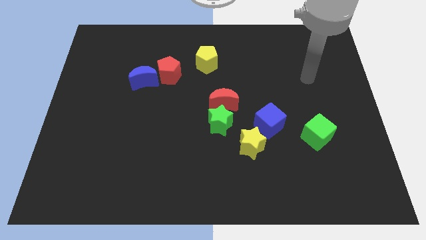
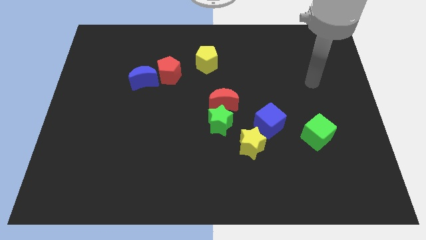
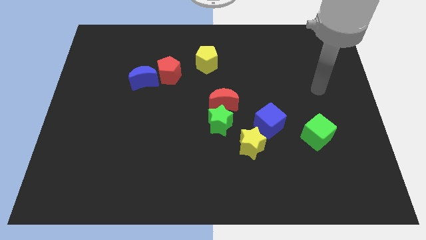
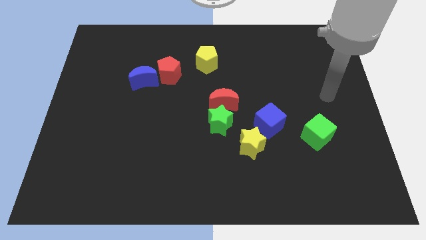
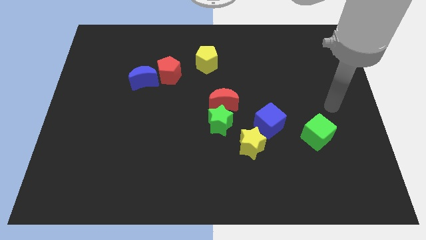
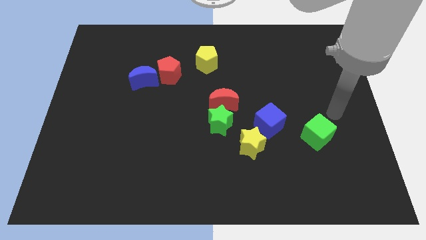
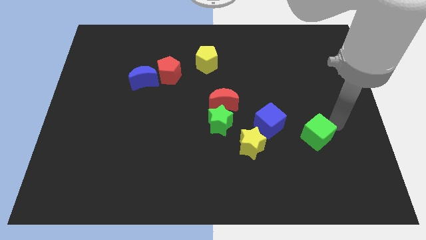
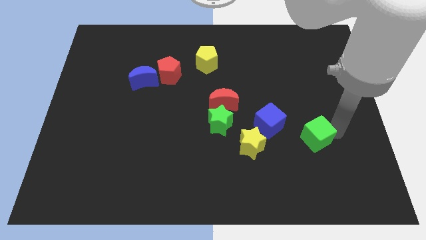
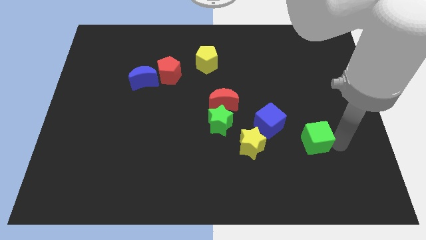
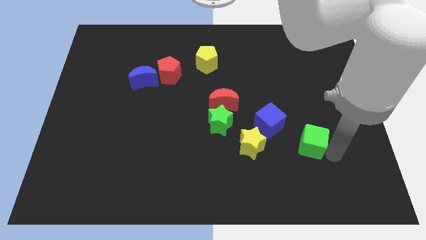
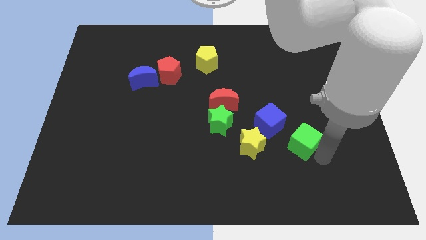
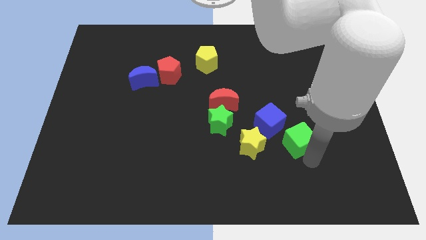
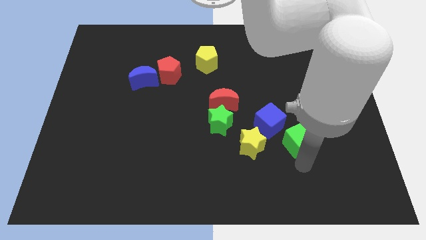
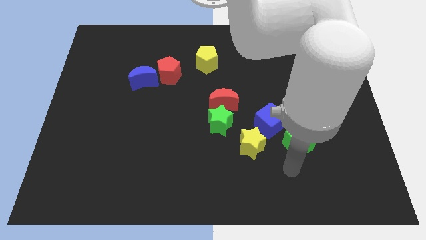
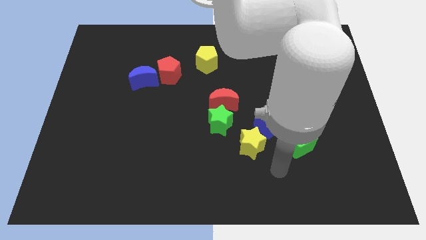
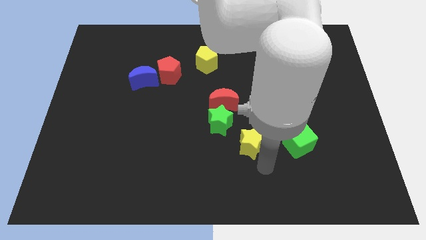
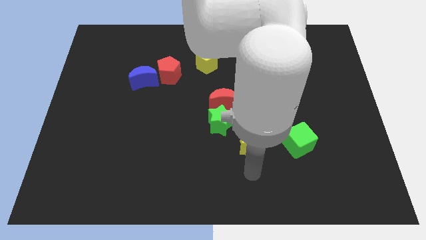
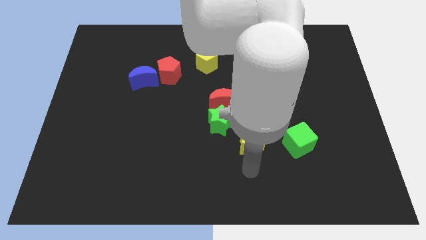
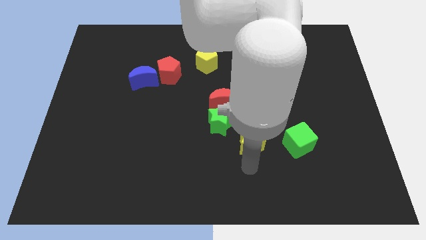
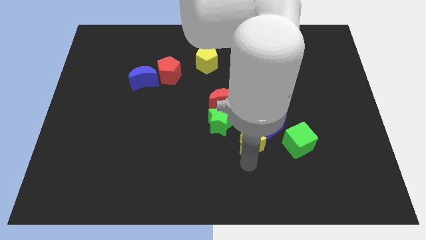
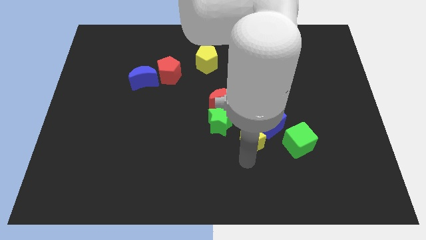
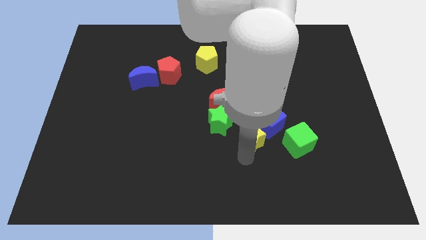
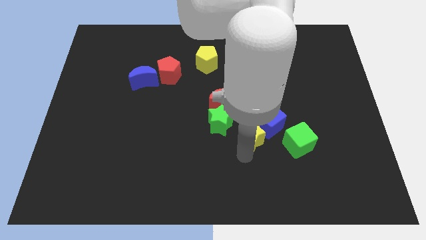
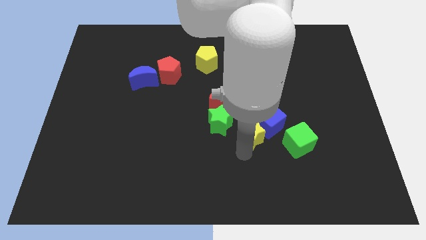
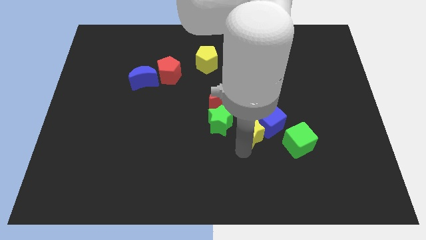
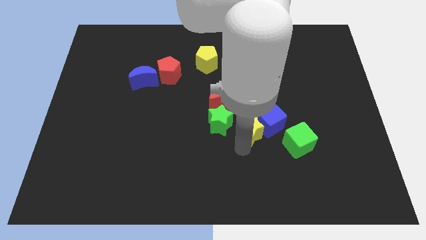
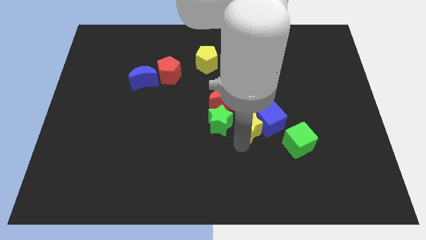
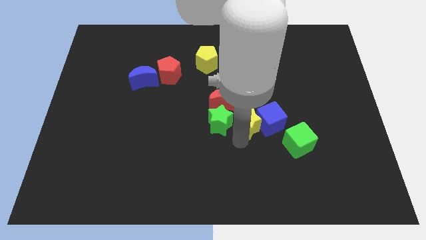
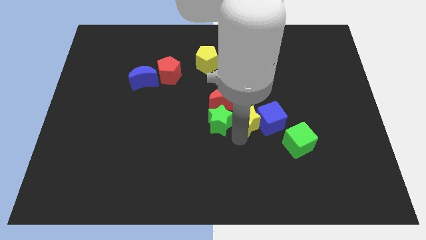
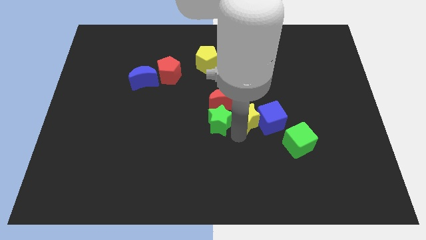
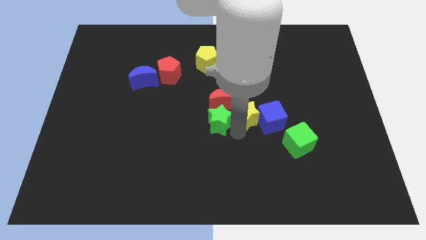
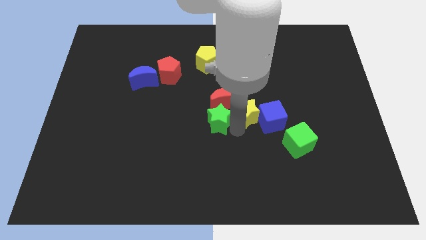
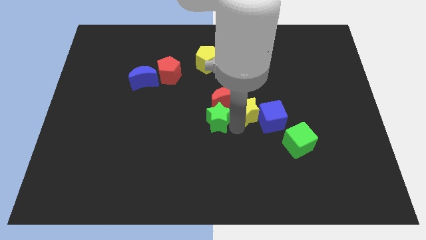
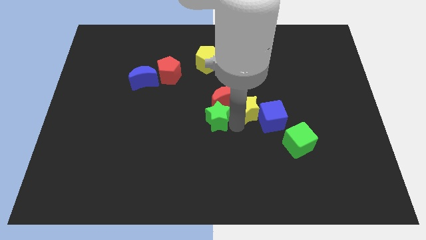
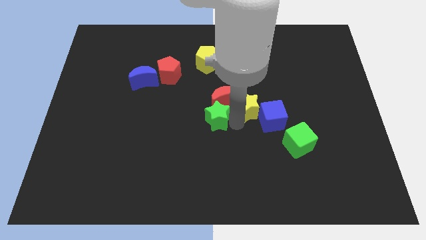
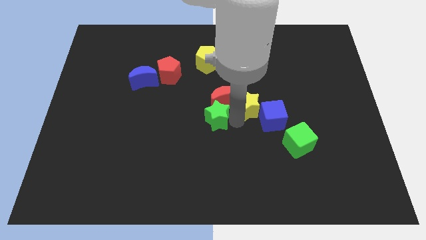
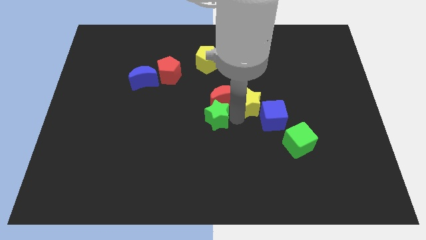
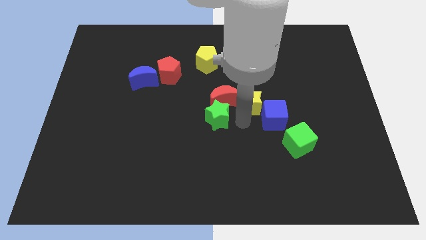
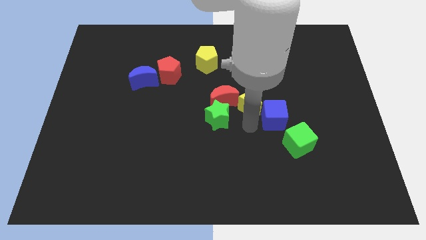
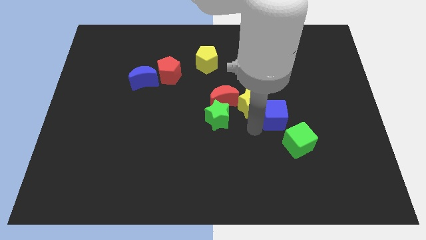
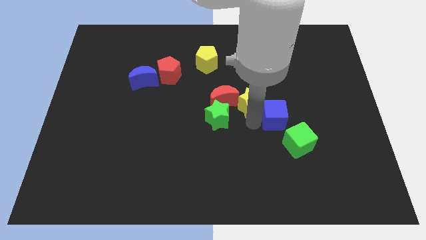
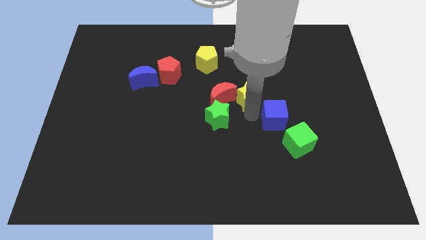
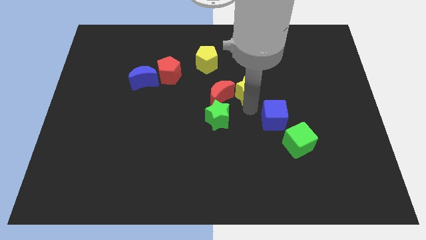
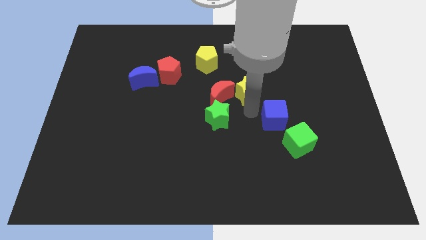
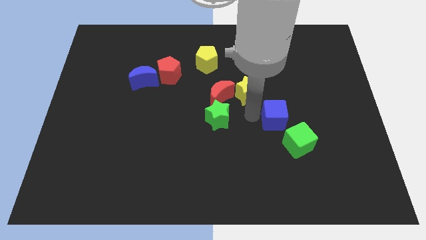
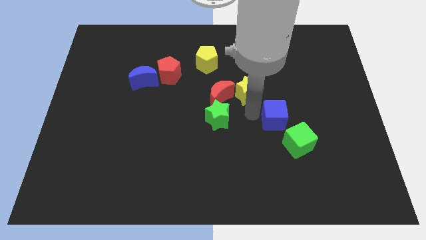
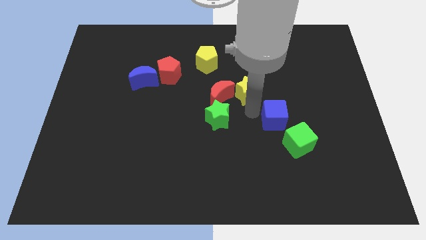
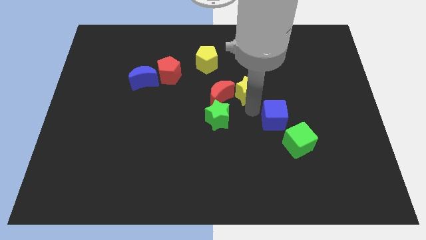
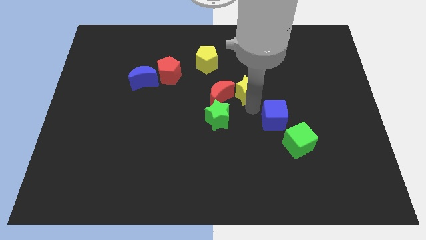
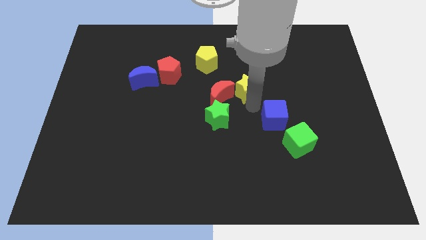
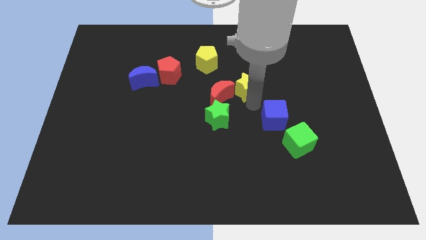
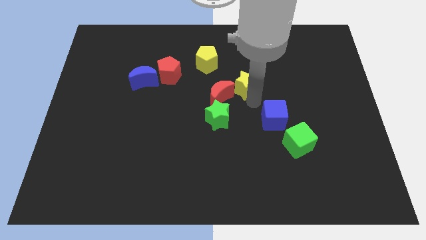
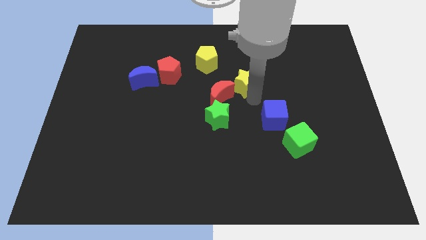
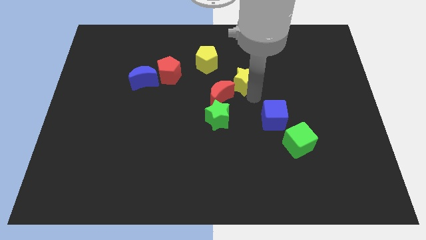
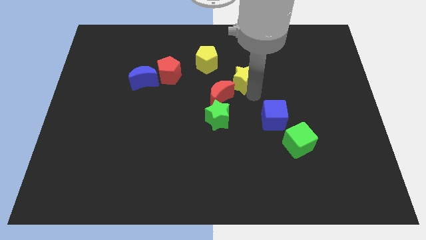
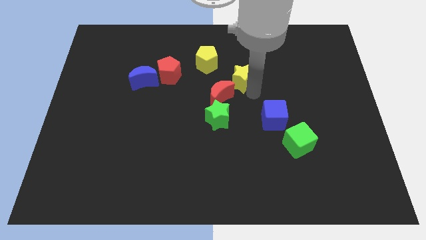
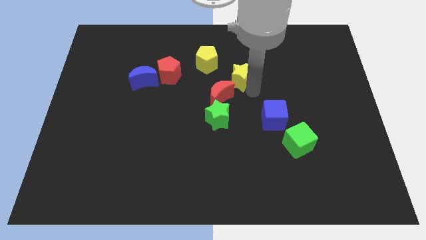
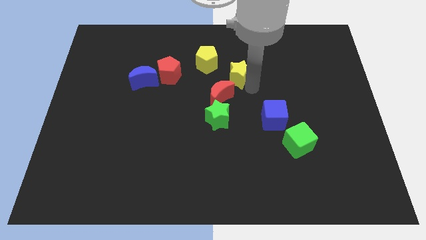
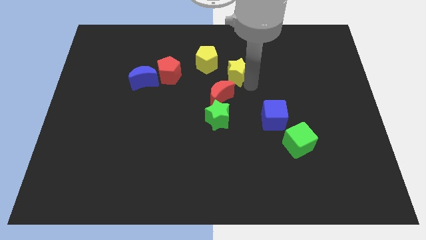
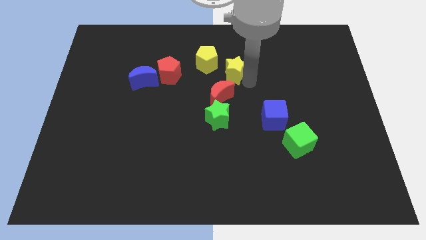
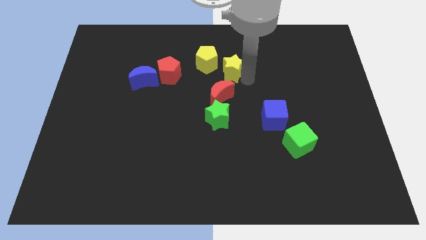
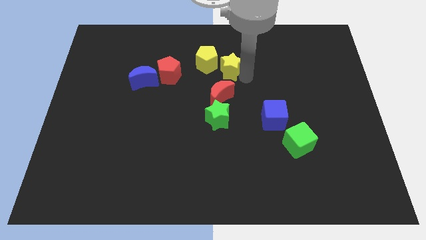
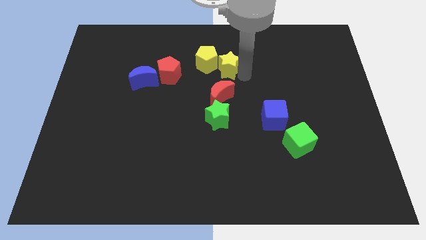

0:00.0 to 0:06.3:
put the yellow star to the yellow pentagon

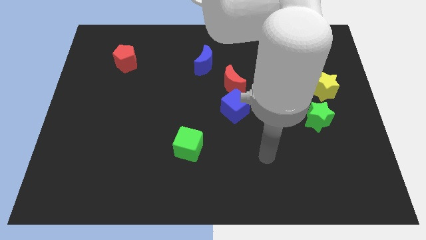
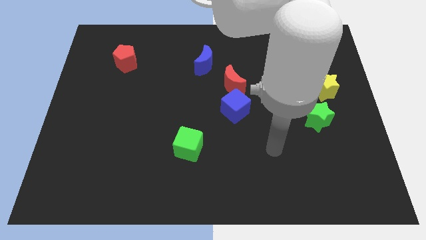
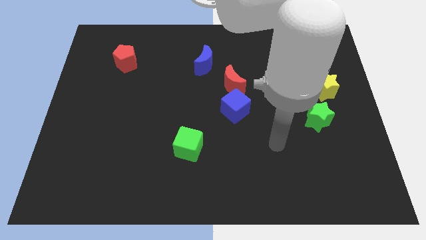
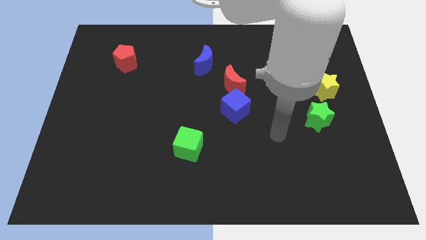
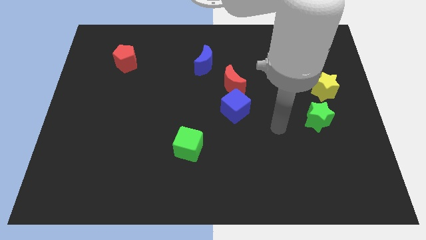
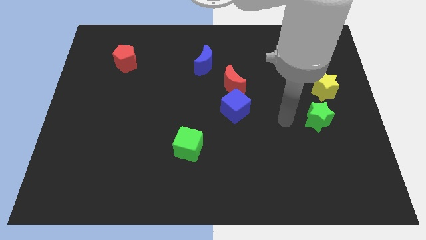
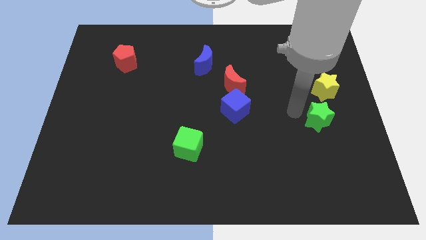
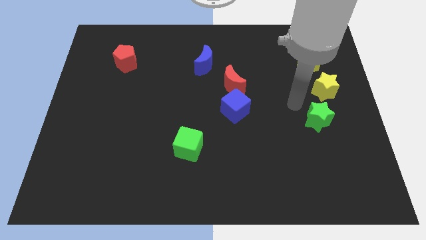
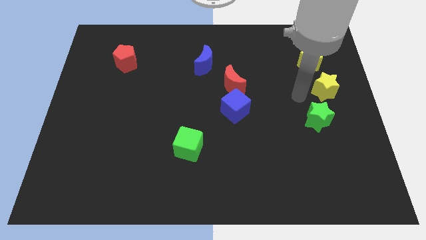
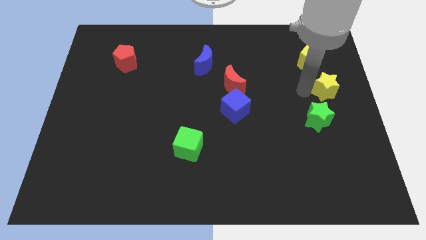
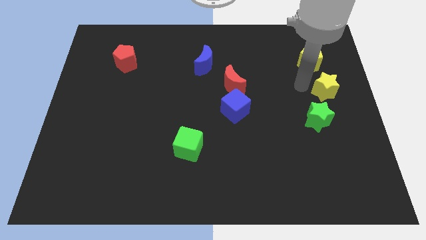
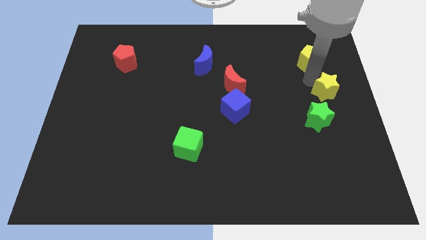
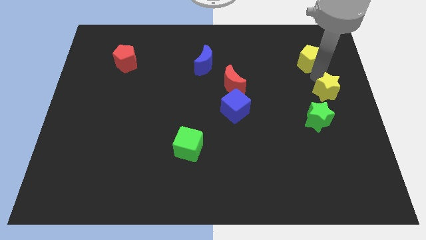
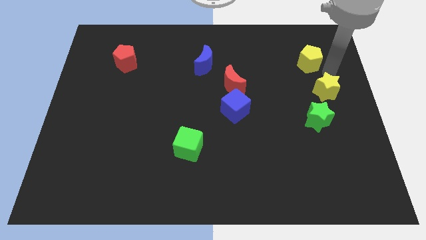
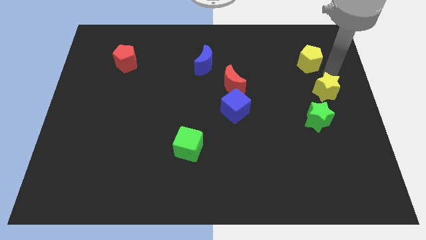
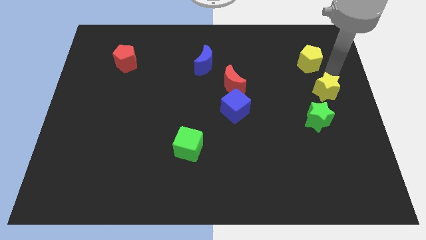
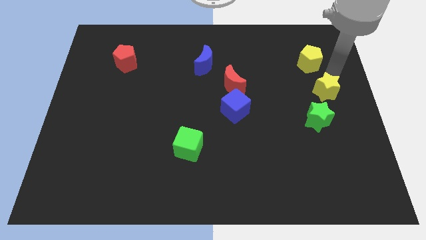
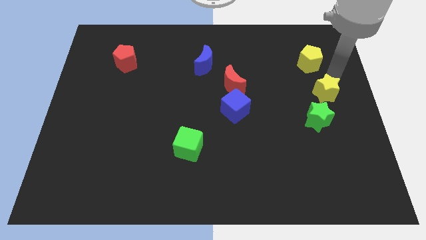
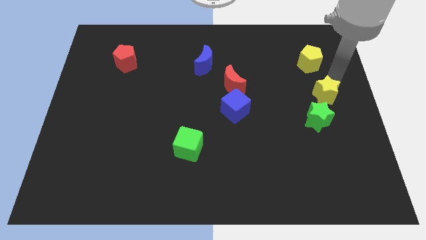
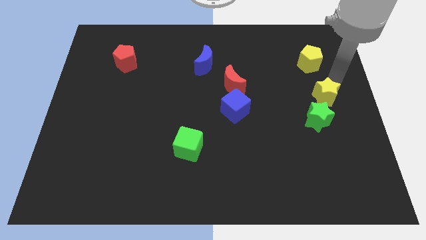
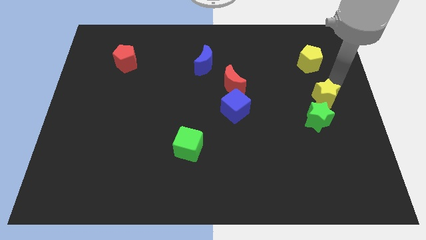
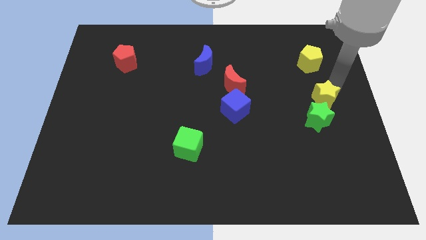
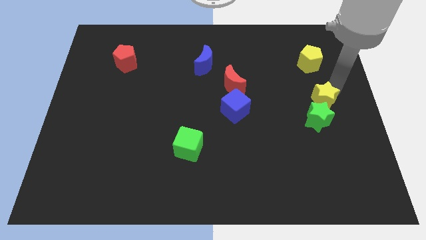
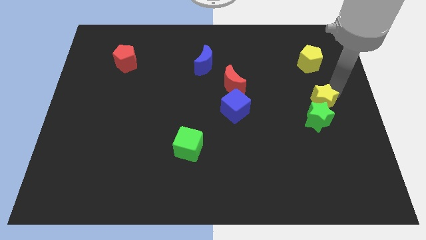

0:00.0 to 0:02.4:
put the yellow star towards the green star
